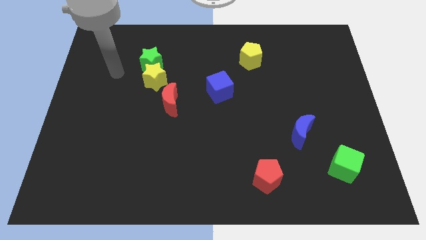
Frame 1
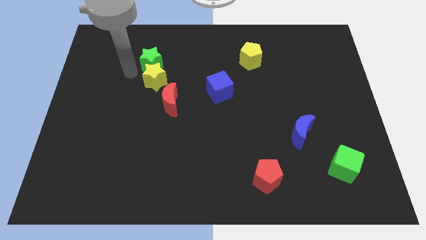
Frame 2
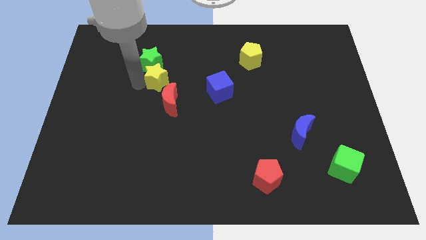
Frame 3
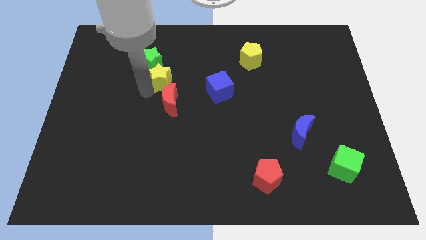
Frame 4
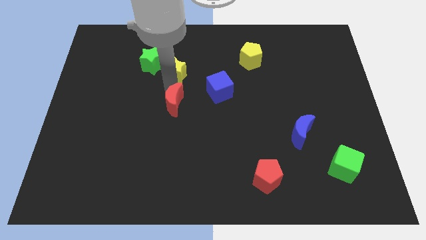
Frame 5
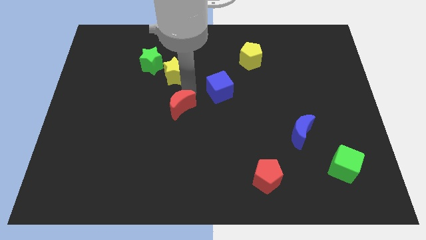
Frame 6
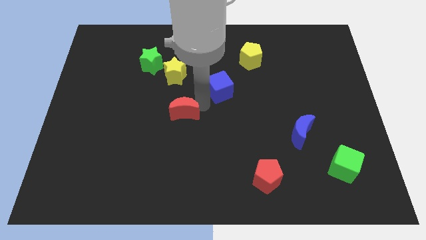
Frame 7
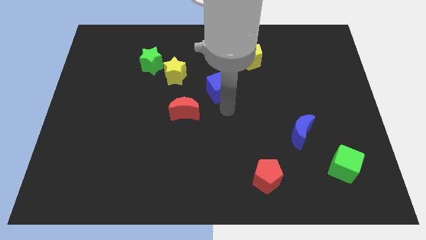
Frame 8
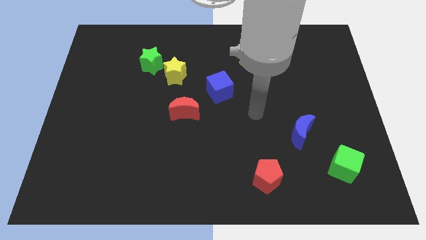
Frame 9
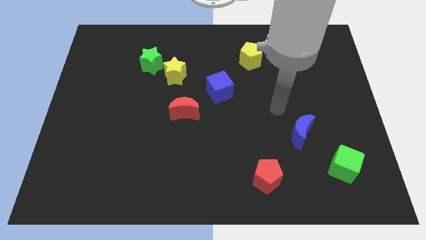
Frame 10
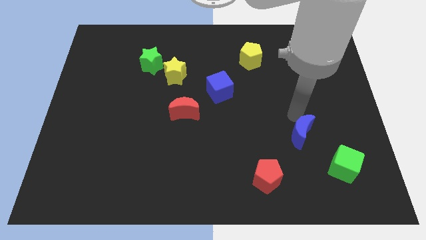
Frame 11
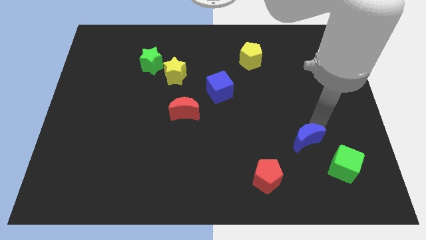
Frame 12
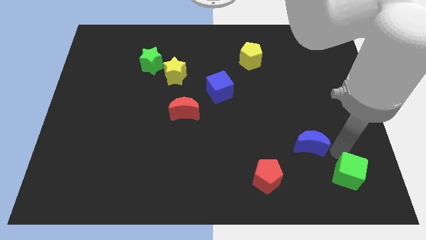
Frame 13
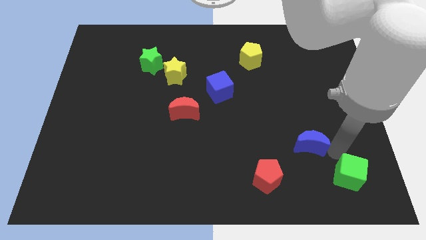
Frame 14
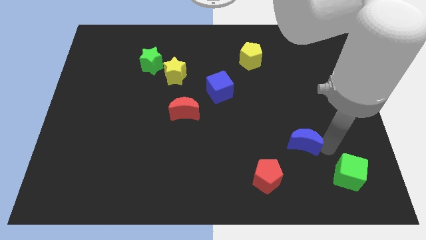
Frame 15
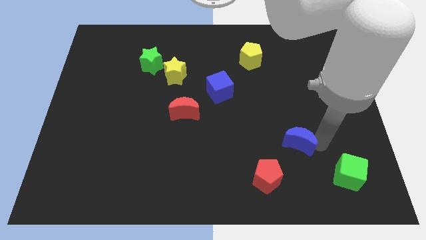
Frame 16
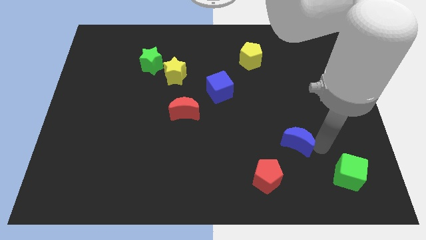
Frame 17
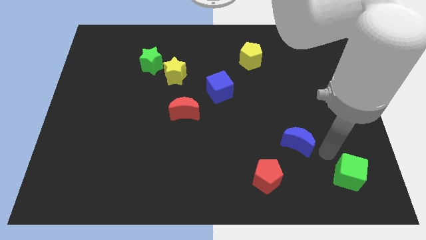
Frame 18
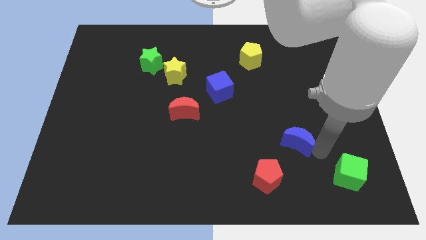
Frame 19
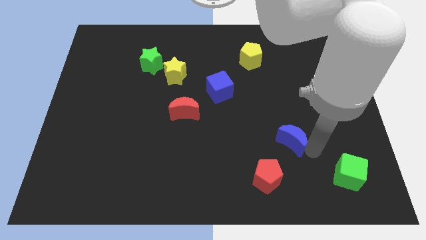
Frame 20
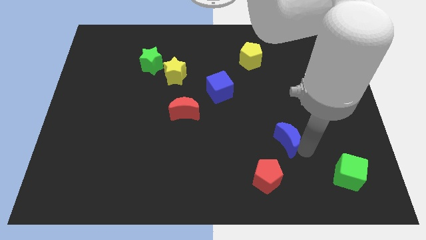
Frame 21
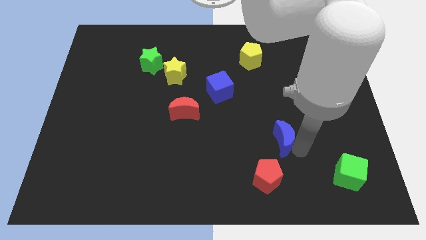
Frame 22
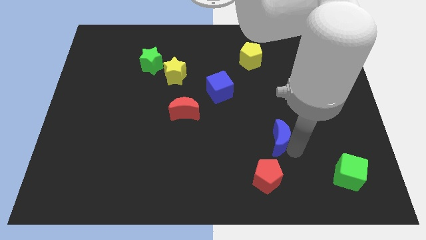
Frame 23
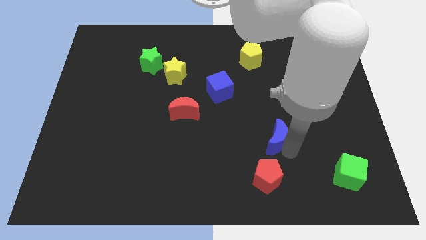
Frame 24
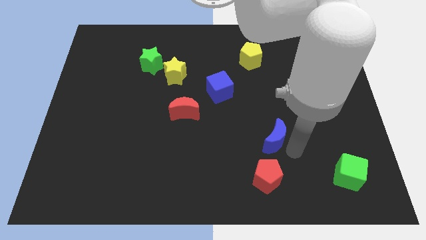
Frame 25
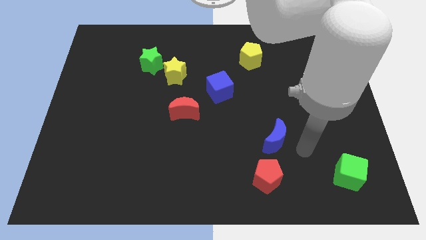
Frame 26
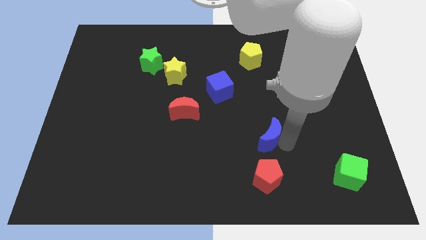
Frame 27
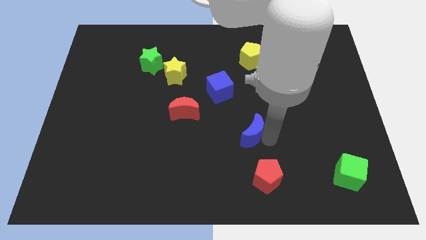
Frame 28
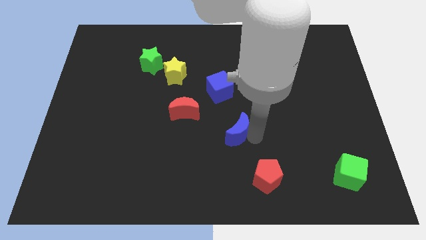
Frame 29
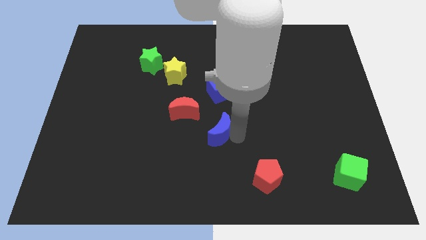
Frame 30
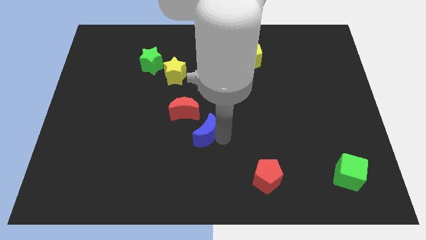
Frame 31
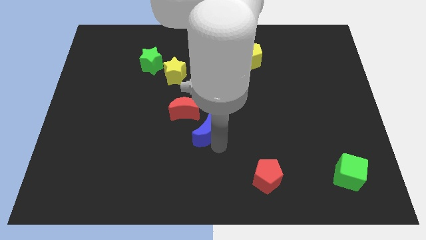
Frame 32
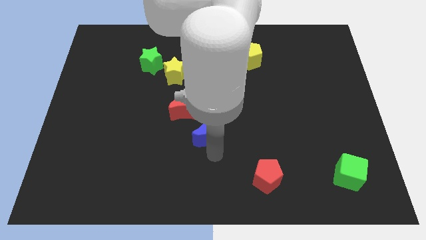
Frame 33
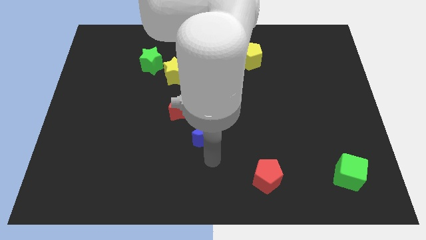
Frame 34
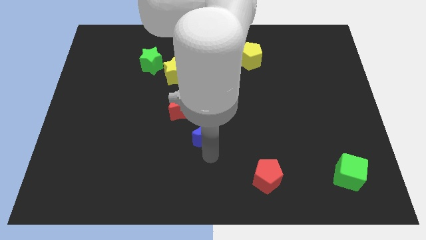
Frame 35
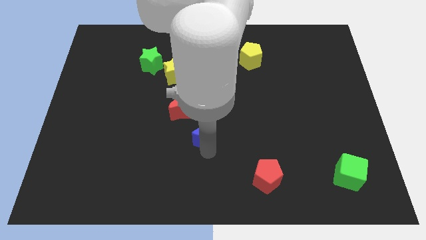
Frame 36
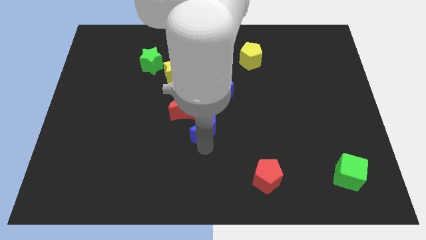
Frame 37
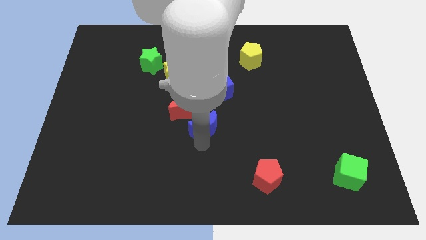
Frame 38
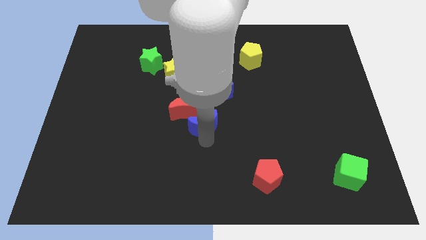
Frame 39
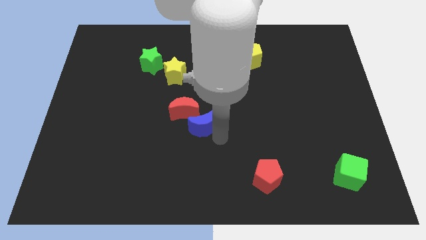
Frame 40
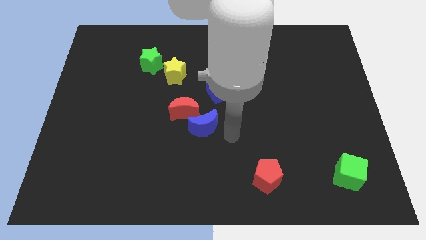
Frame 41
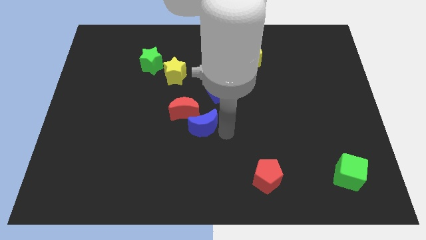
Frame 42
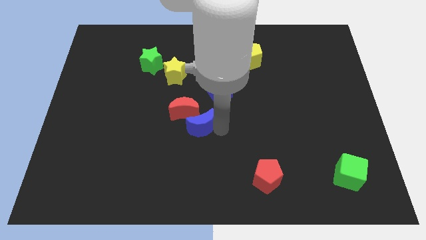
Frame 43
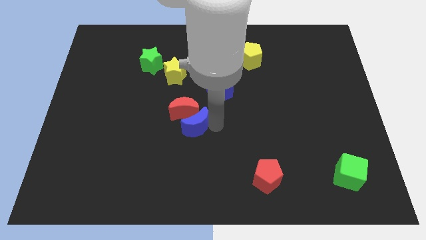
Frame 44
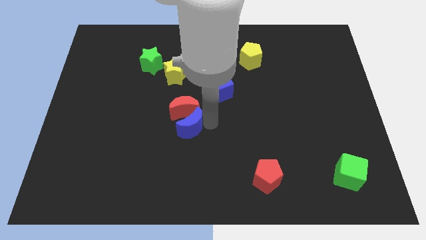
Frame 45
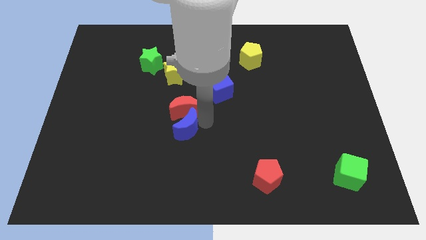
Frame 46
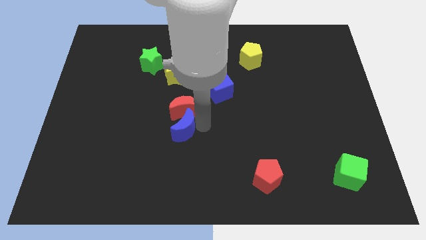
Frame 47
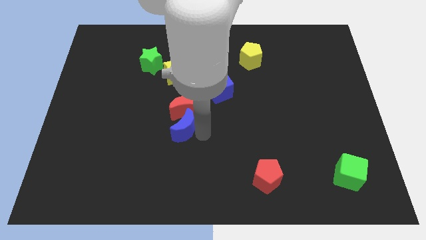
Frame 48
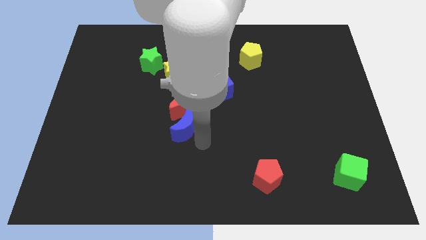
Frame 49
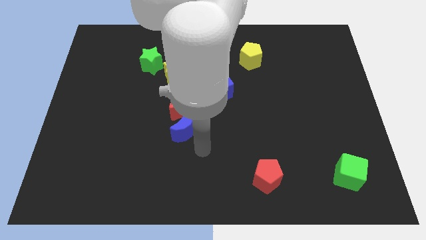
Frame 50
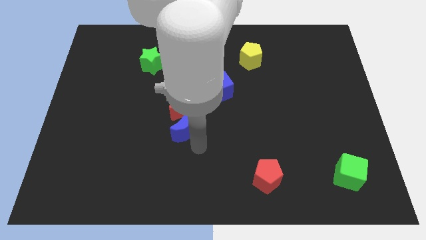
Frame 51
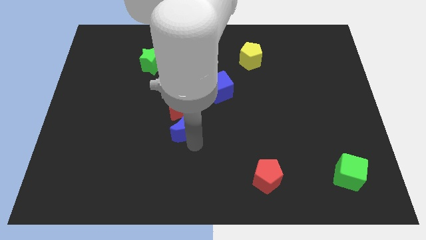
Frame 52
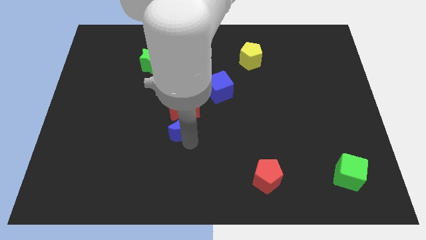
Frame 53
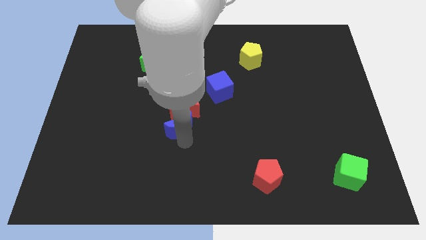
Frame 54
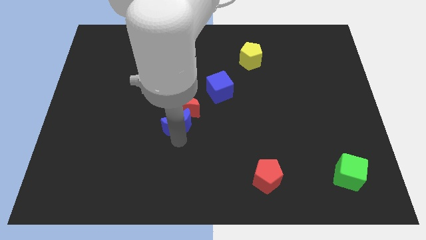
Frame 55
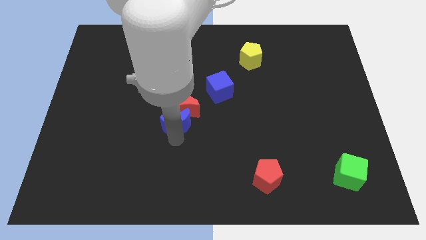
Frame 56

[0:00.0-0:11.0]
push the blue moon to the bottom side of the yellow star

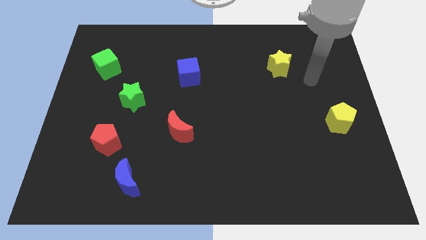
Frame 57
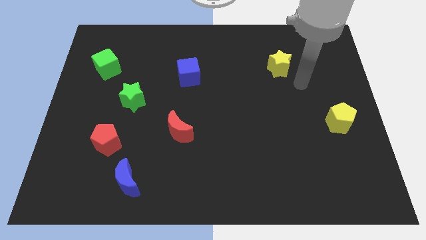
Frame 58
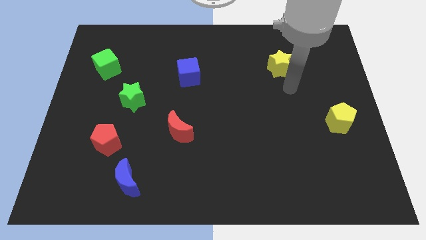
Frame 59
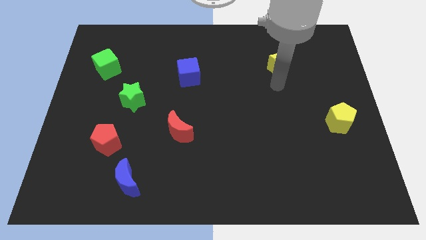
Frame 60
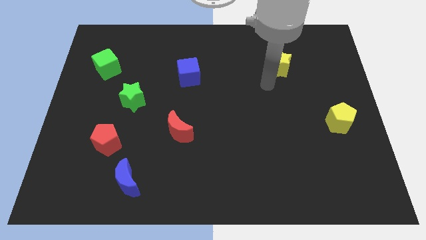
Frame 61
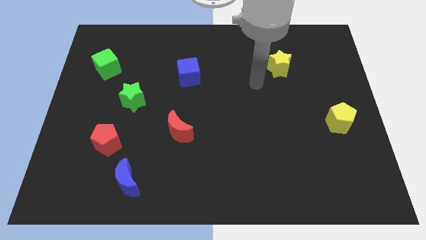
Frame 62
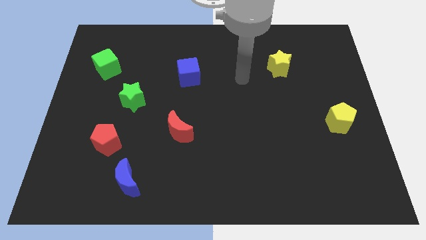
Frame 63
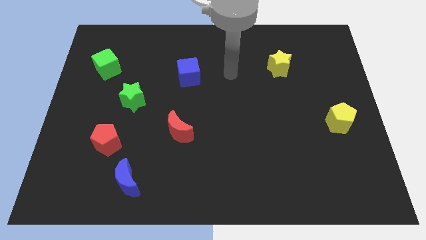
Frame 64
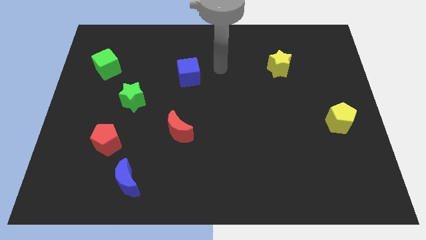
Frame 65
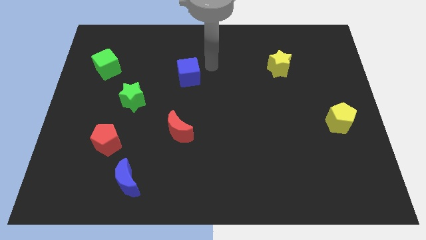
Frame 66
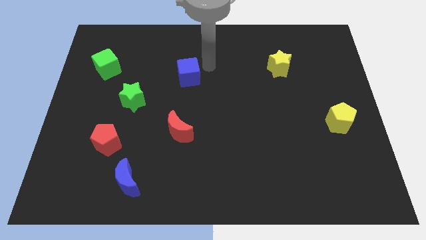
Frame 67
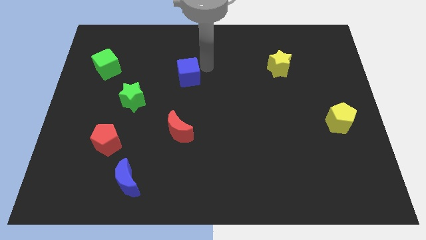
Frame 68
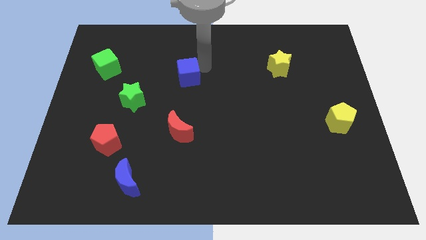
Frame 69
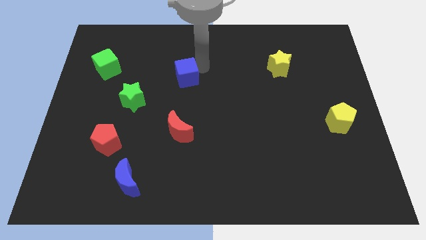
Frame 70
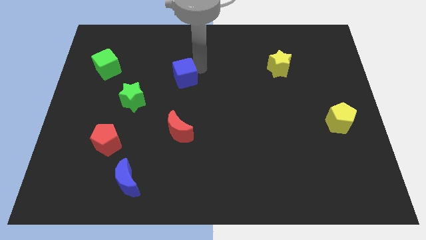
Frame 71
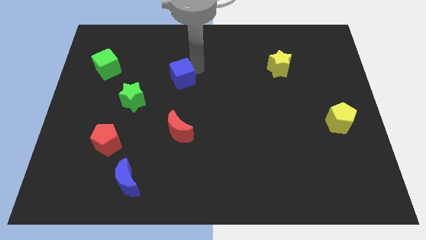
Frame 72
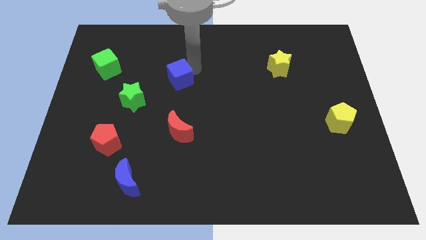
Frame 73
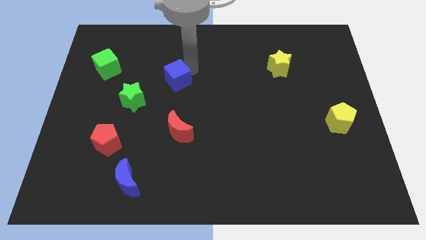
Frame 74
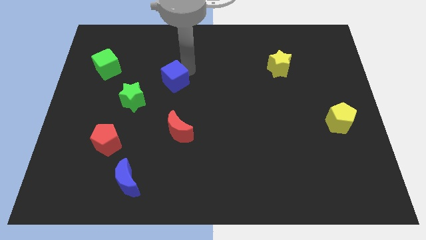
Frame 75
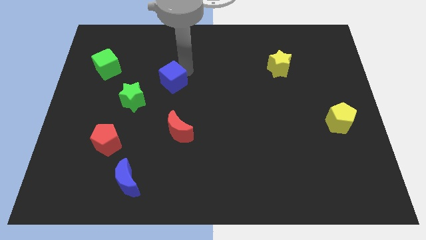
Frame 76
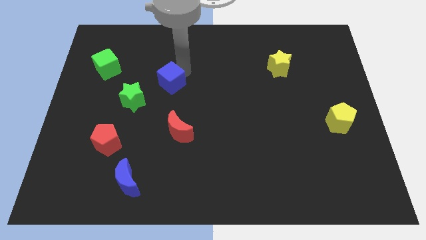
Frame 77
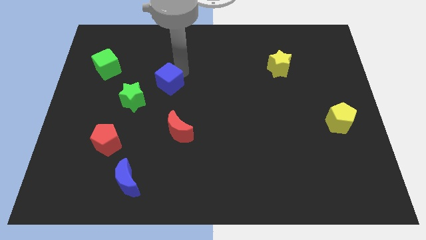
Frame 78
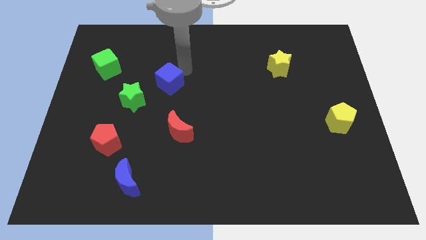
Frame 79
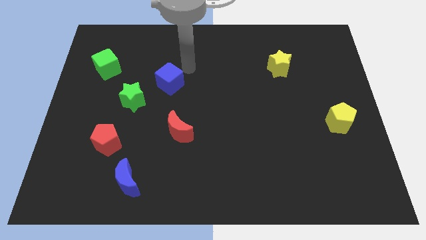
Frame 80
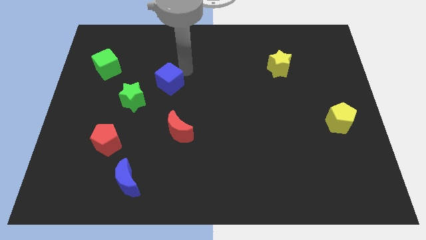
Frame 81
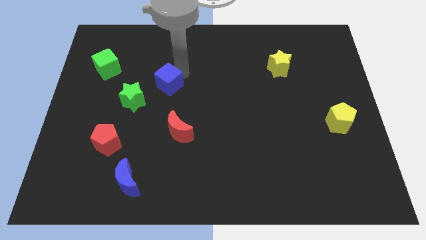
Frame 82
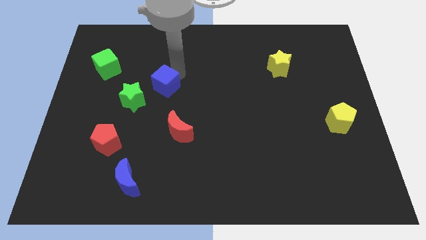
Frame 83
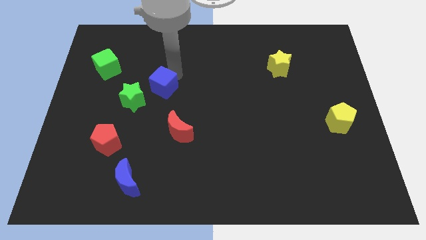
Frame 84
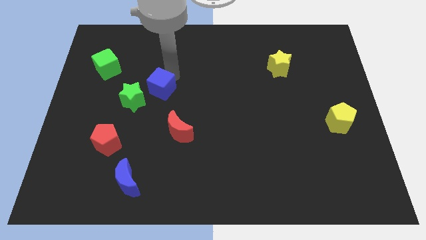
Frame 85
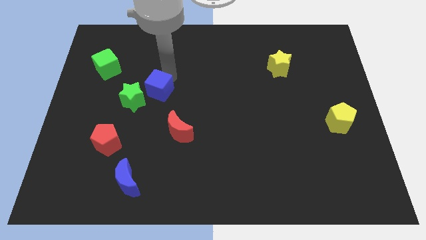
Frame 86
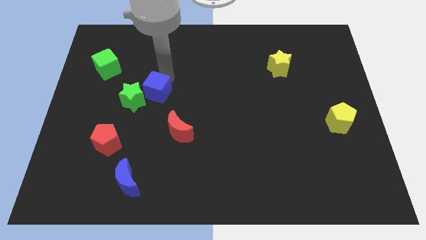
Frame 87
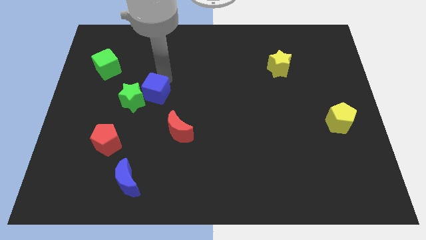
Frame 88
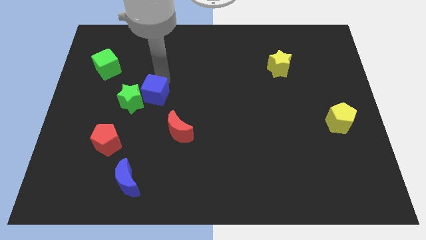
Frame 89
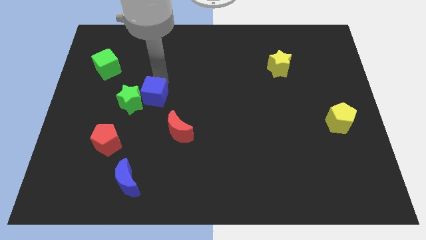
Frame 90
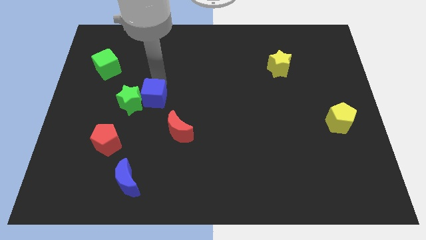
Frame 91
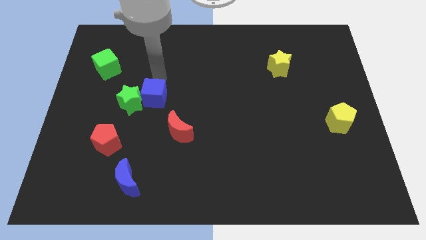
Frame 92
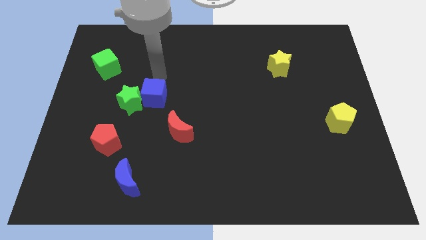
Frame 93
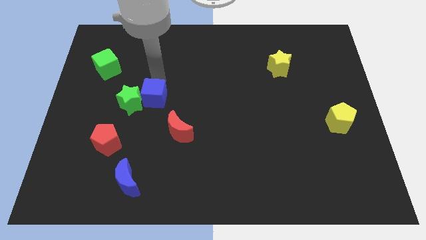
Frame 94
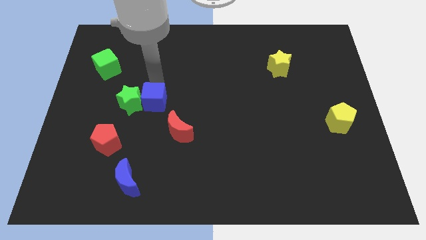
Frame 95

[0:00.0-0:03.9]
push the blue cube to the bottom right of the green star
